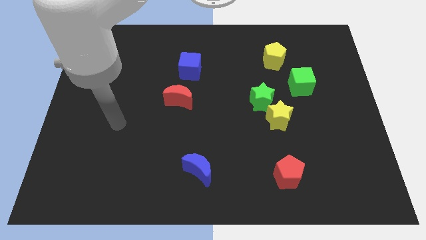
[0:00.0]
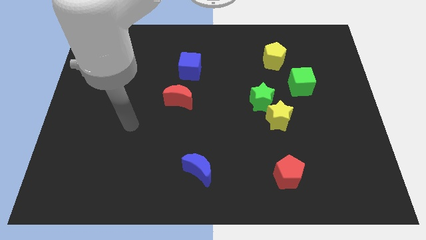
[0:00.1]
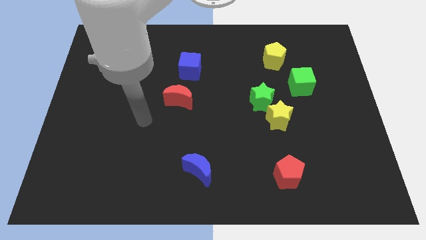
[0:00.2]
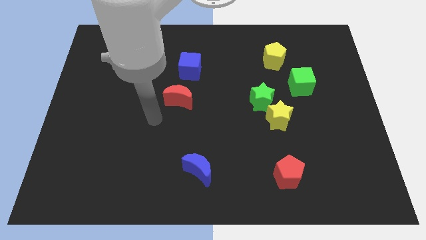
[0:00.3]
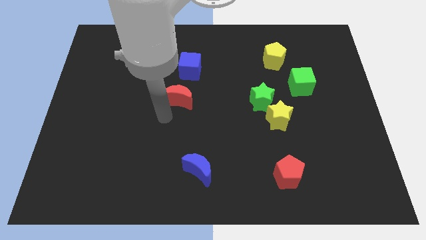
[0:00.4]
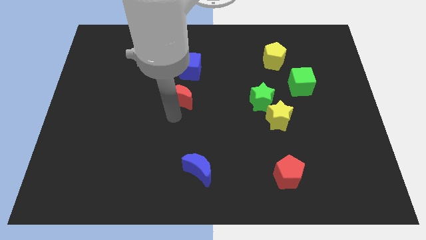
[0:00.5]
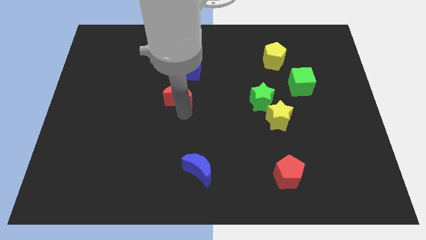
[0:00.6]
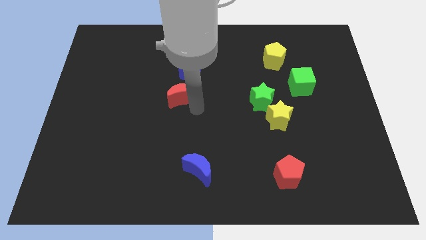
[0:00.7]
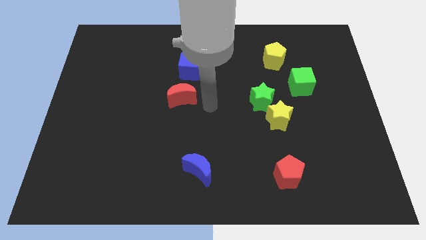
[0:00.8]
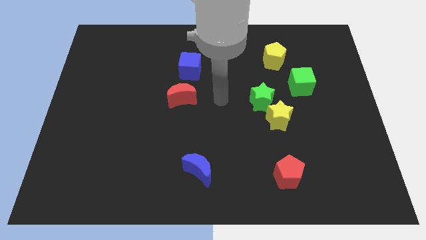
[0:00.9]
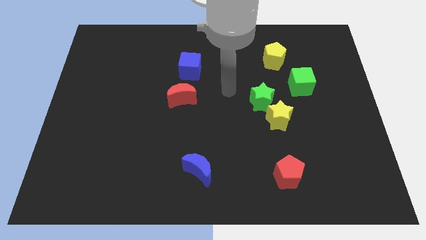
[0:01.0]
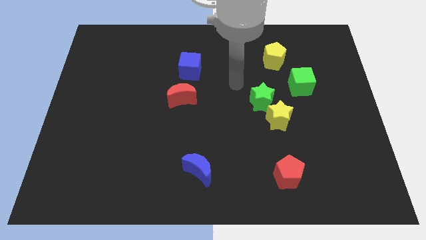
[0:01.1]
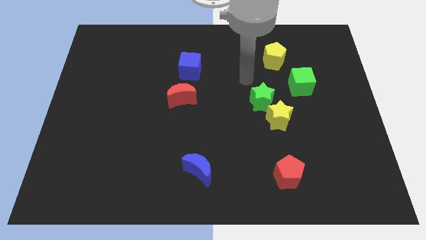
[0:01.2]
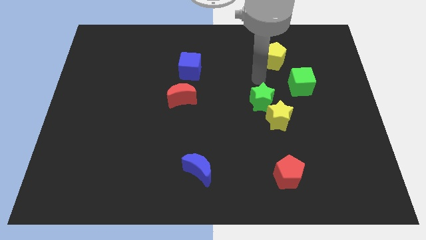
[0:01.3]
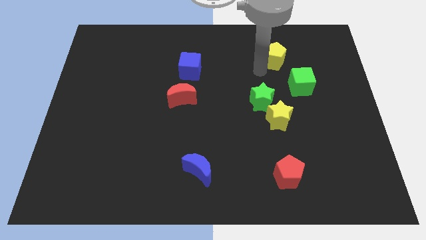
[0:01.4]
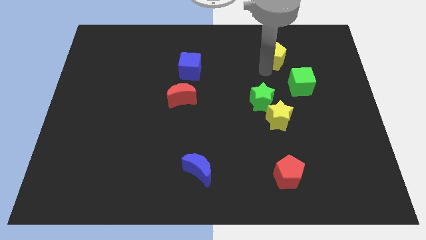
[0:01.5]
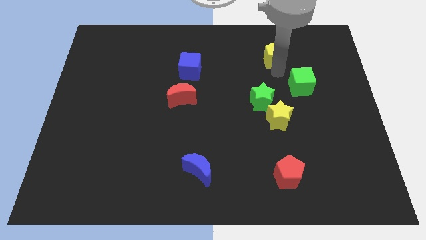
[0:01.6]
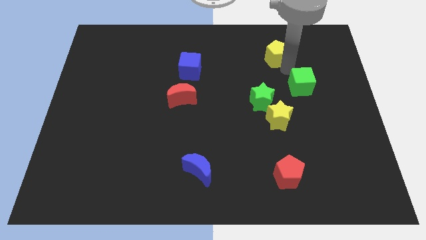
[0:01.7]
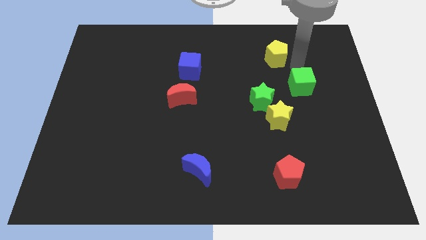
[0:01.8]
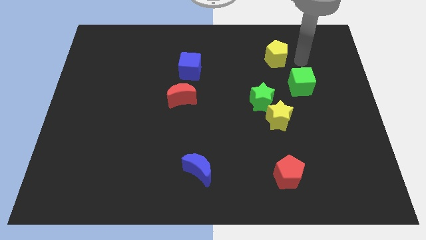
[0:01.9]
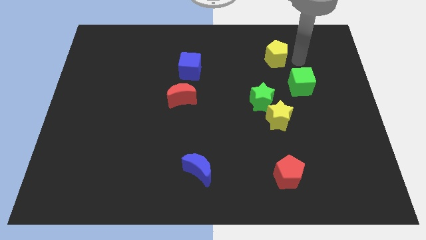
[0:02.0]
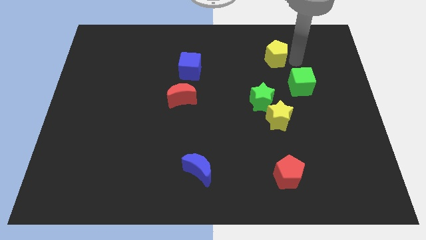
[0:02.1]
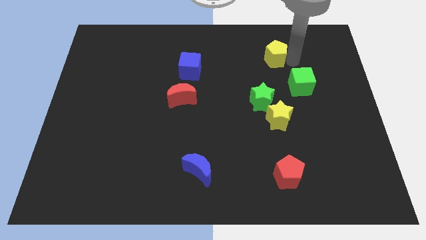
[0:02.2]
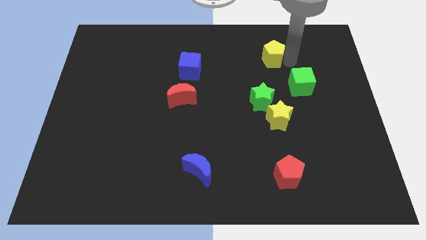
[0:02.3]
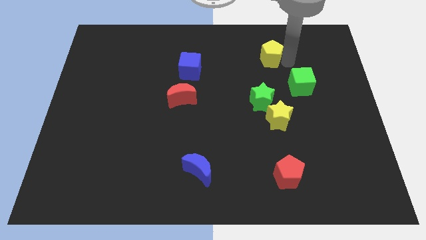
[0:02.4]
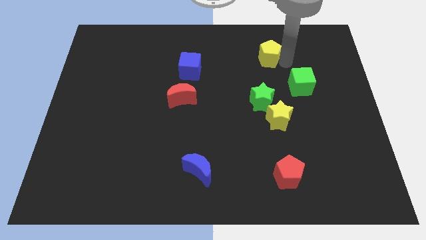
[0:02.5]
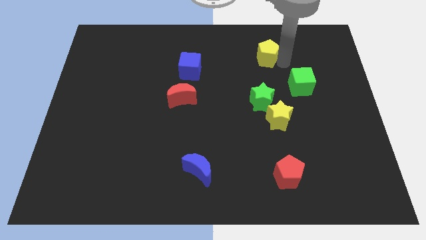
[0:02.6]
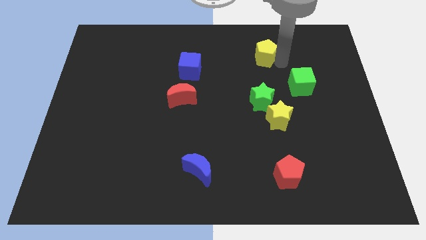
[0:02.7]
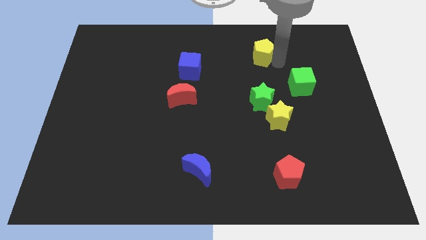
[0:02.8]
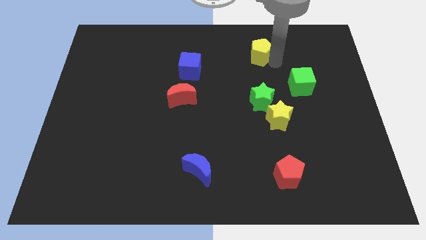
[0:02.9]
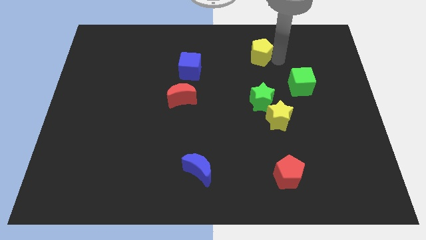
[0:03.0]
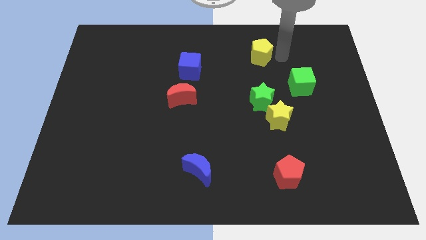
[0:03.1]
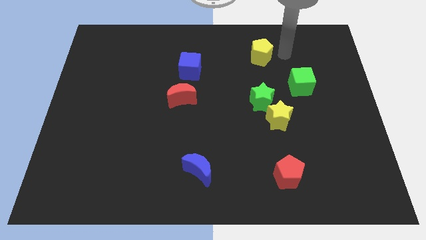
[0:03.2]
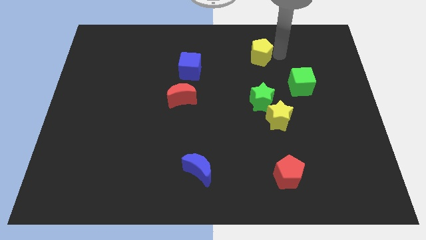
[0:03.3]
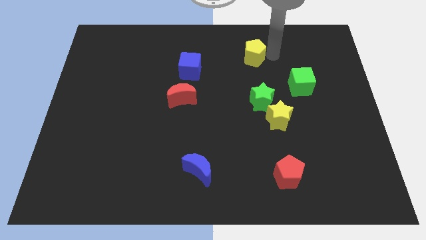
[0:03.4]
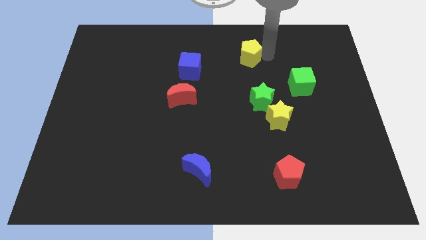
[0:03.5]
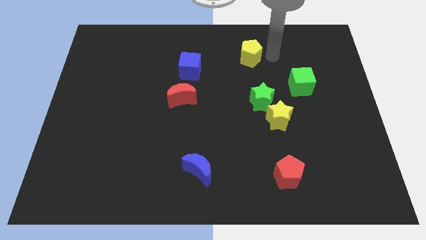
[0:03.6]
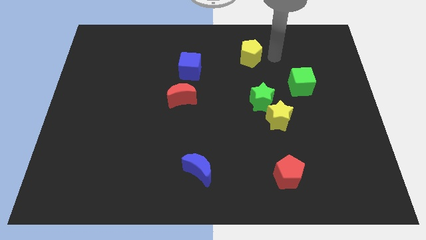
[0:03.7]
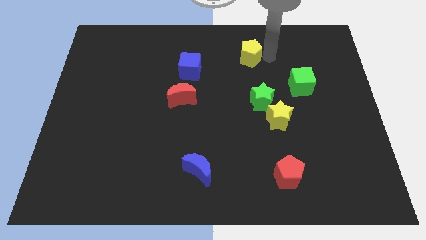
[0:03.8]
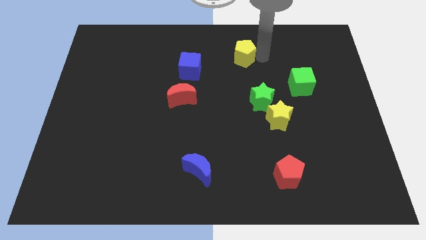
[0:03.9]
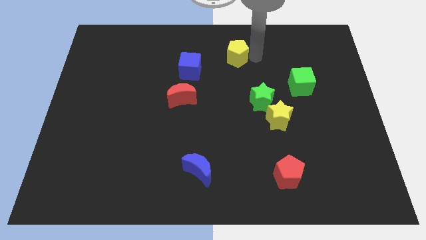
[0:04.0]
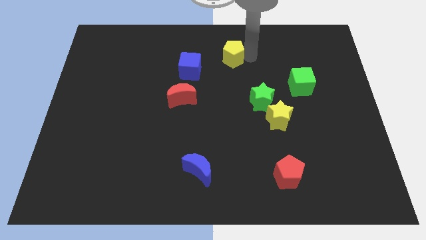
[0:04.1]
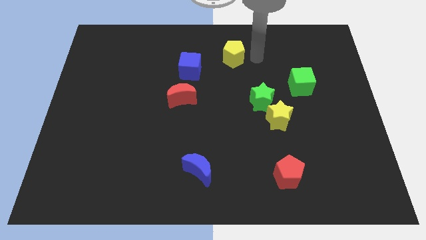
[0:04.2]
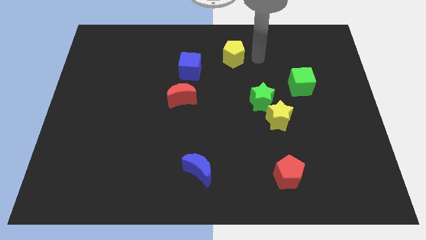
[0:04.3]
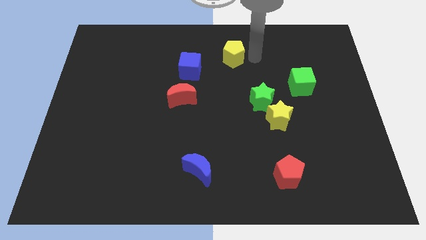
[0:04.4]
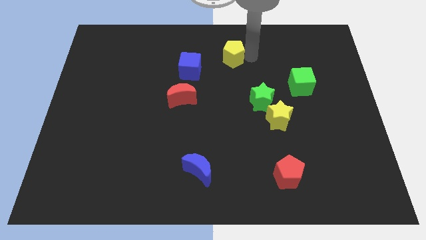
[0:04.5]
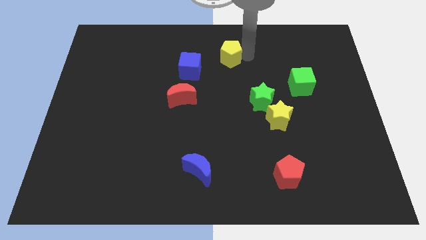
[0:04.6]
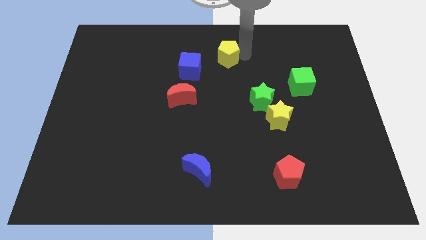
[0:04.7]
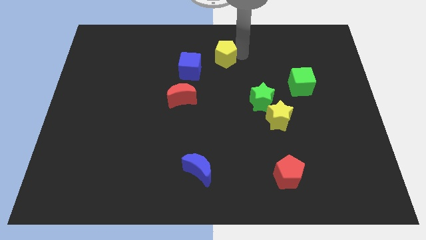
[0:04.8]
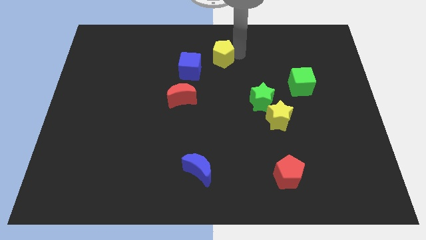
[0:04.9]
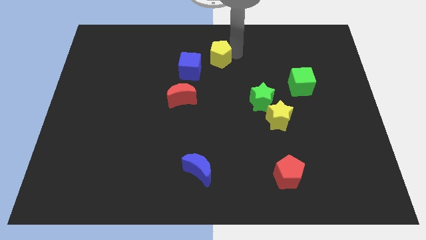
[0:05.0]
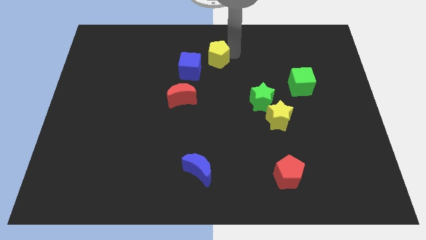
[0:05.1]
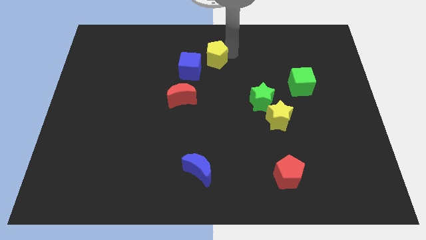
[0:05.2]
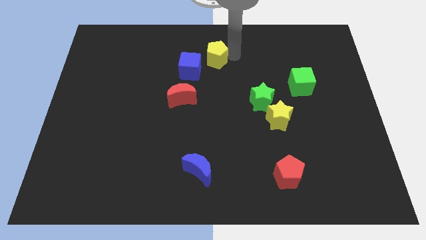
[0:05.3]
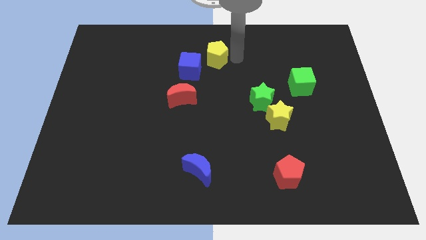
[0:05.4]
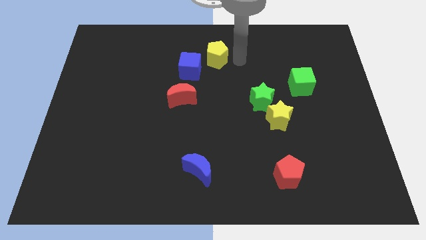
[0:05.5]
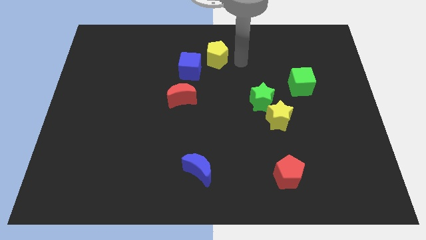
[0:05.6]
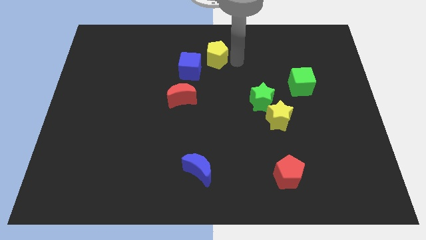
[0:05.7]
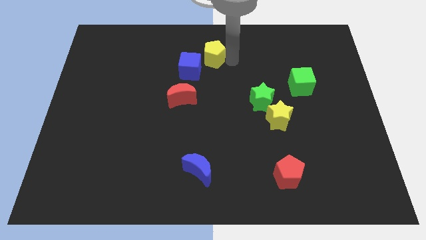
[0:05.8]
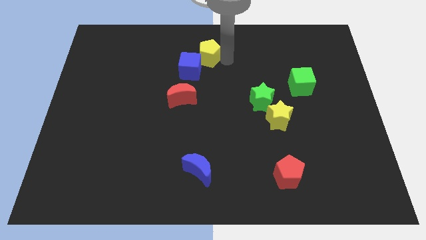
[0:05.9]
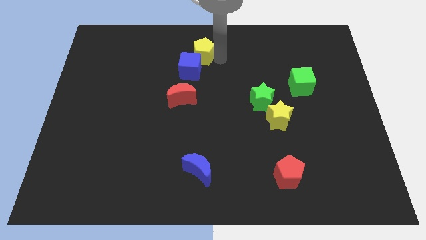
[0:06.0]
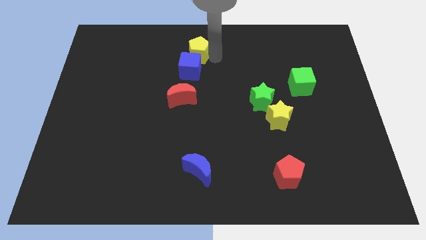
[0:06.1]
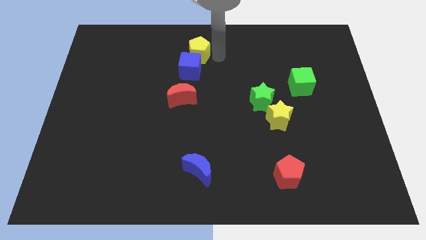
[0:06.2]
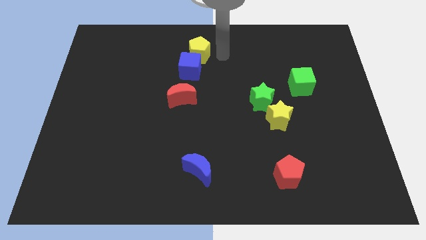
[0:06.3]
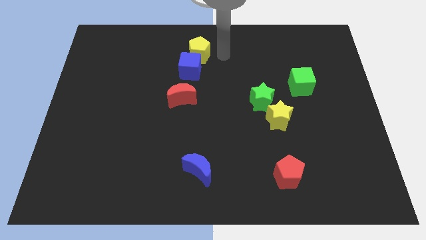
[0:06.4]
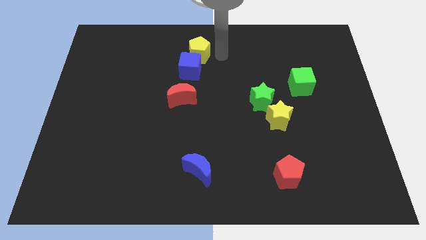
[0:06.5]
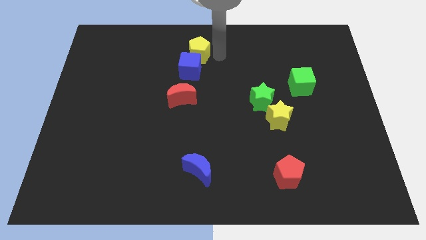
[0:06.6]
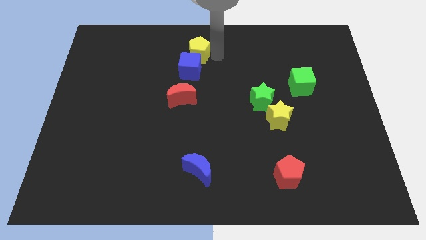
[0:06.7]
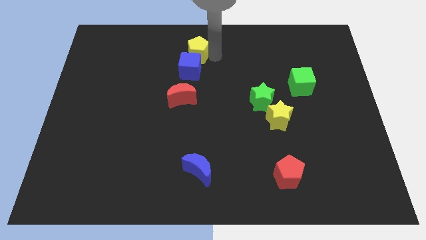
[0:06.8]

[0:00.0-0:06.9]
move the yellow pentagon to the left

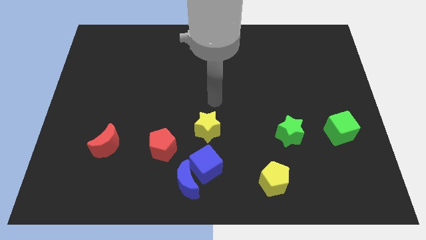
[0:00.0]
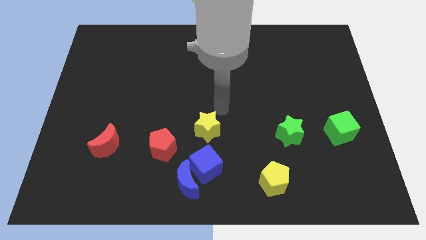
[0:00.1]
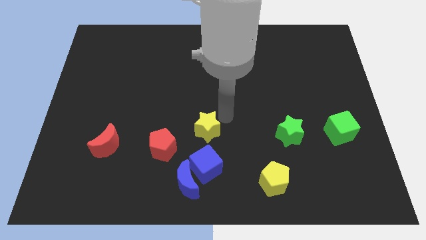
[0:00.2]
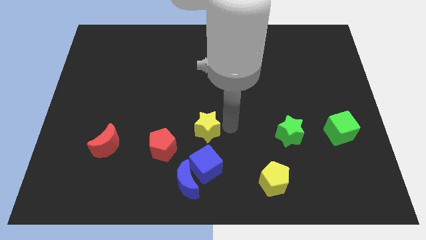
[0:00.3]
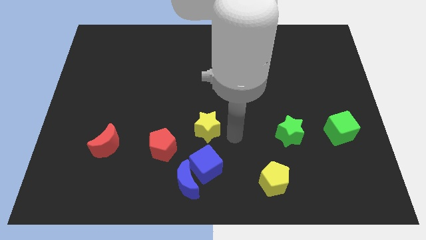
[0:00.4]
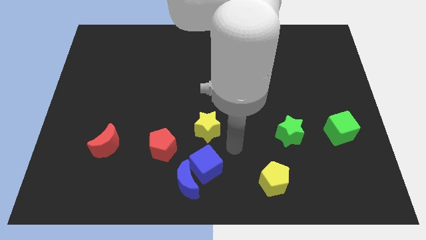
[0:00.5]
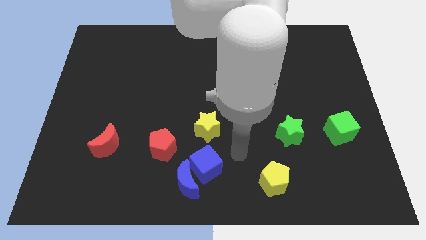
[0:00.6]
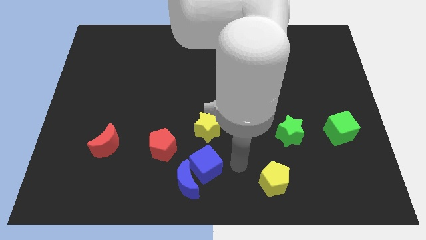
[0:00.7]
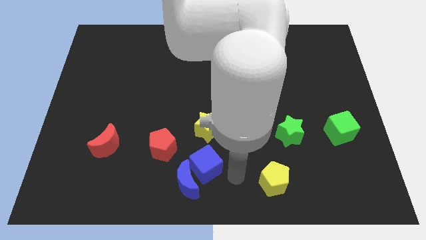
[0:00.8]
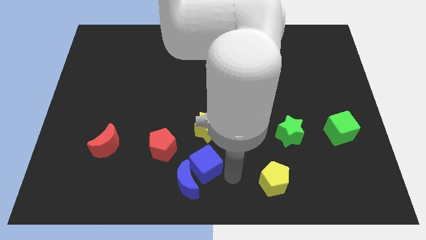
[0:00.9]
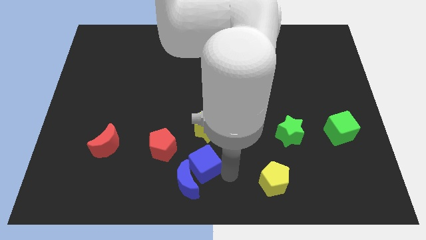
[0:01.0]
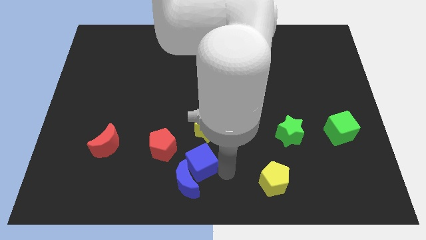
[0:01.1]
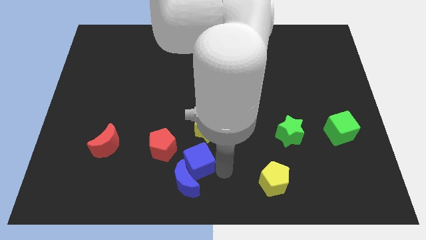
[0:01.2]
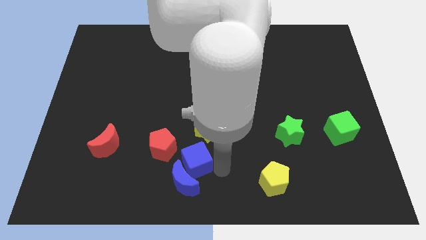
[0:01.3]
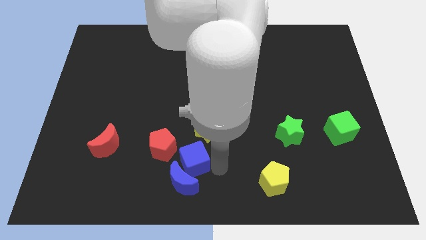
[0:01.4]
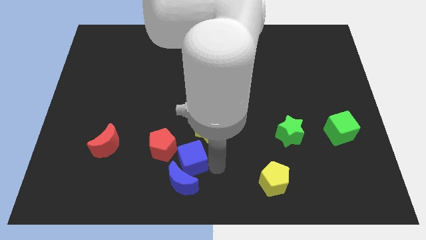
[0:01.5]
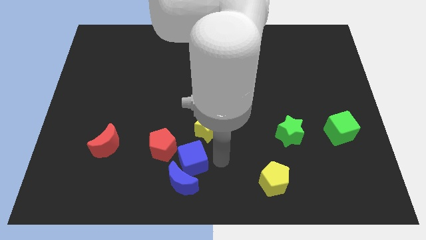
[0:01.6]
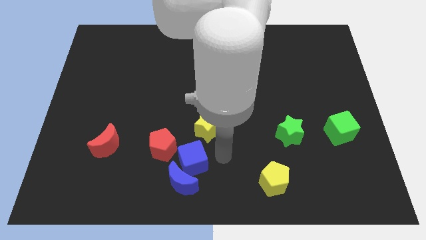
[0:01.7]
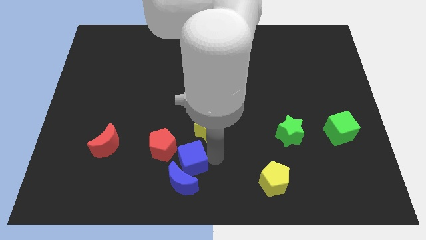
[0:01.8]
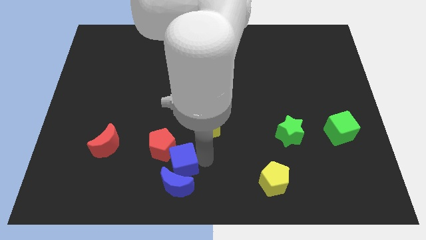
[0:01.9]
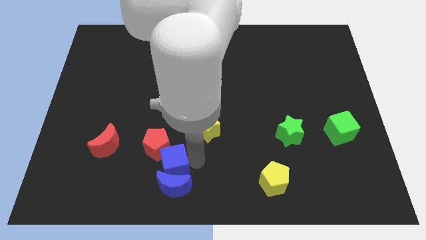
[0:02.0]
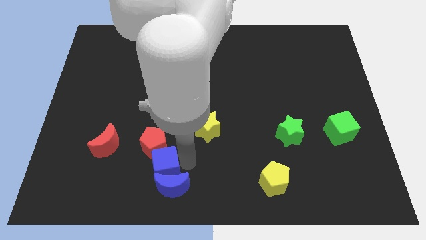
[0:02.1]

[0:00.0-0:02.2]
slightly slide the blue cube left
